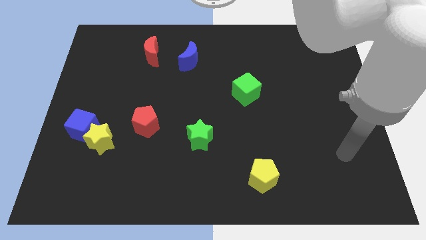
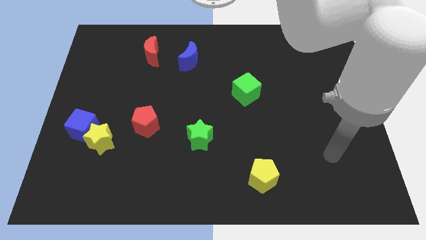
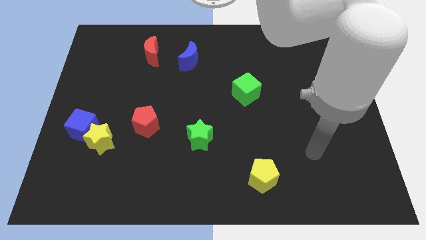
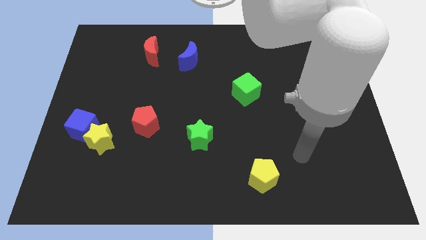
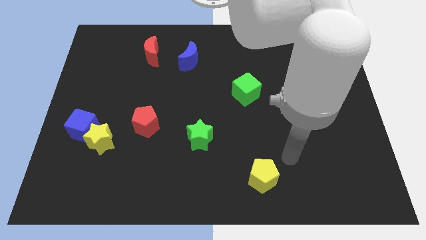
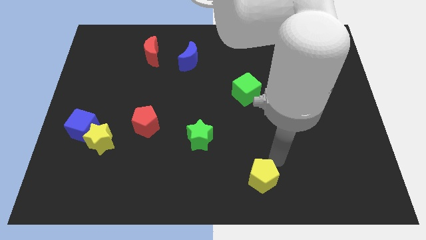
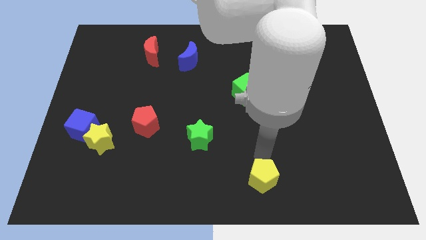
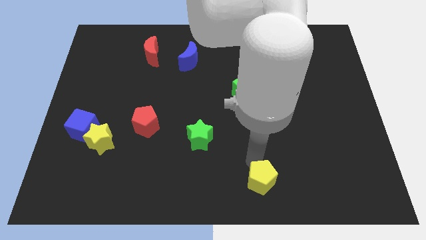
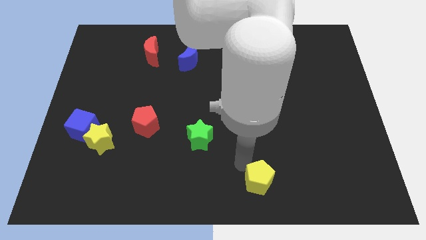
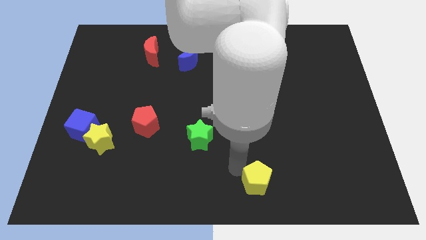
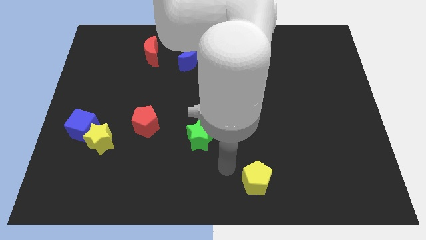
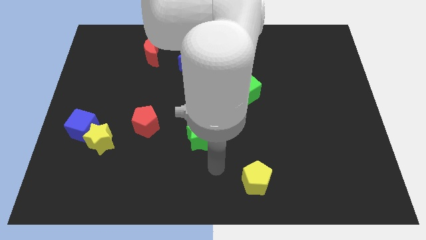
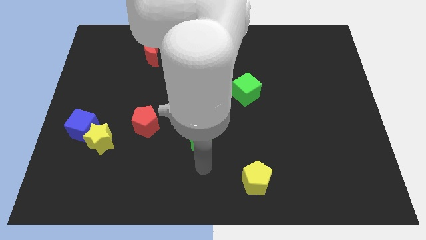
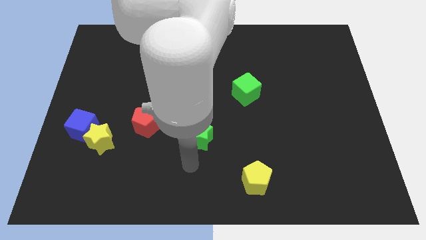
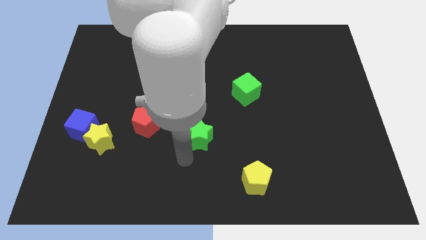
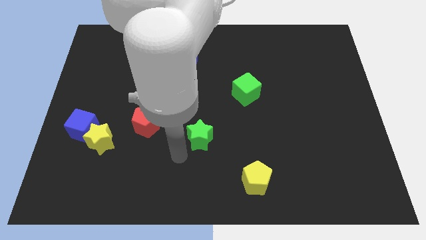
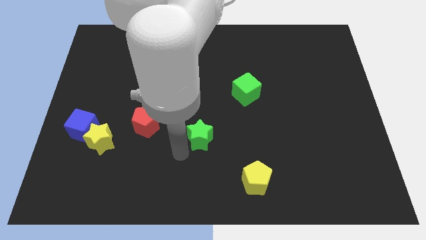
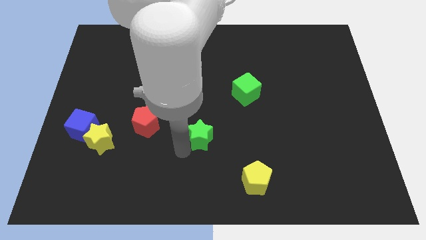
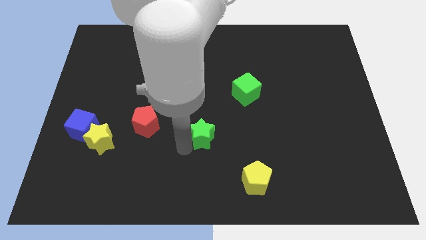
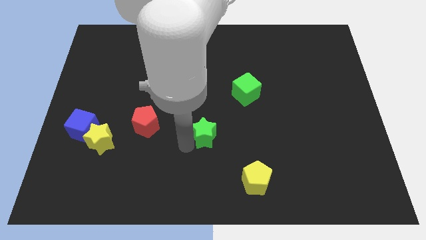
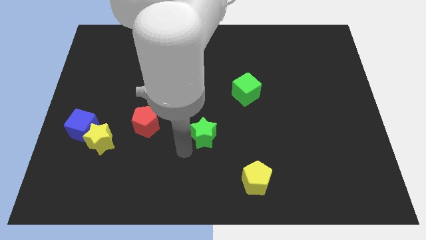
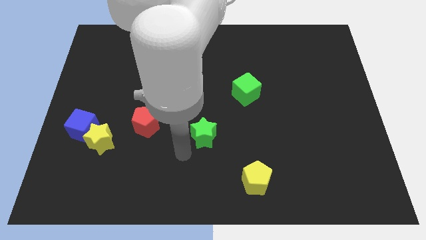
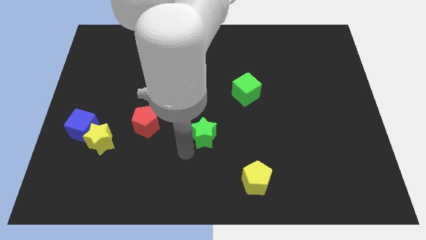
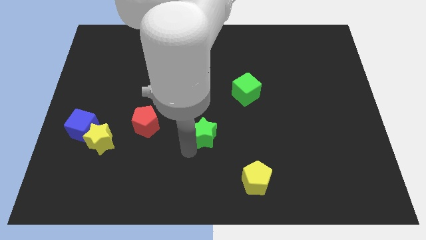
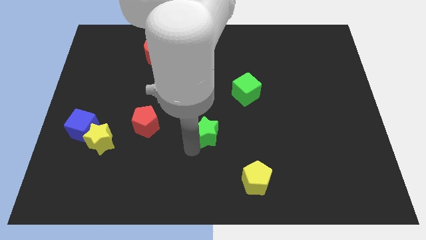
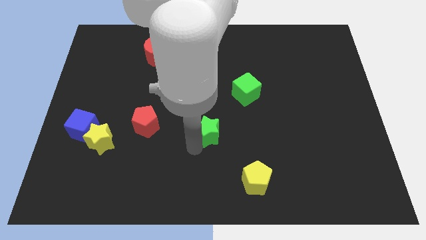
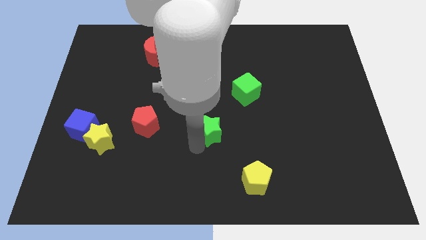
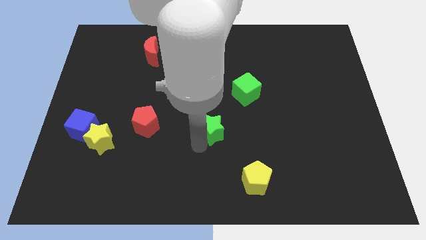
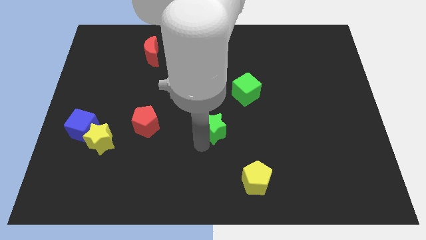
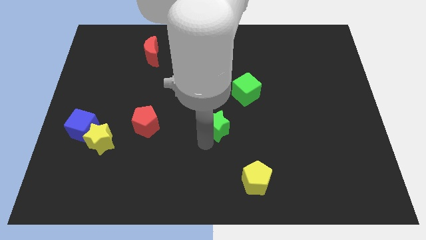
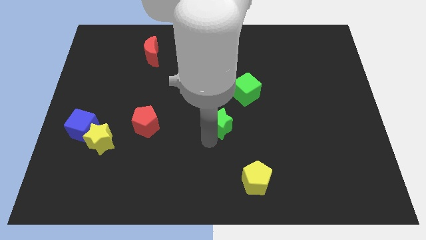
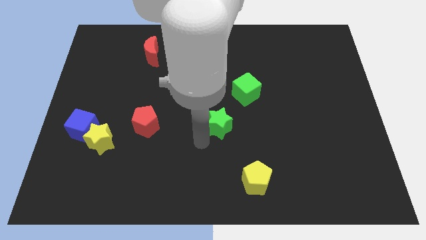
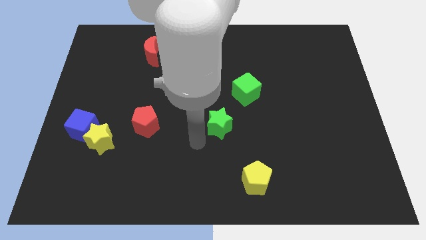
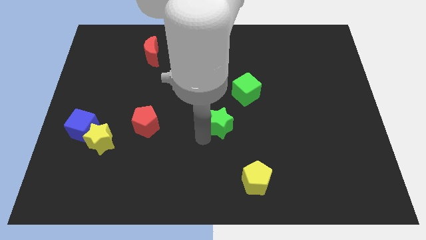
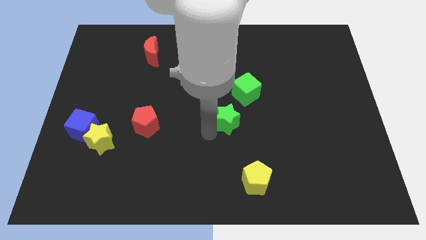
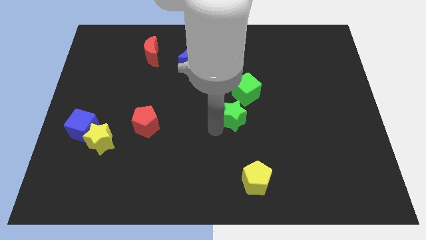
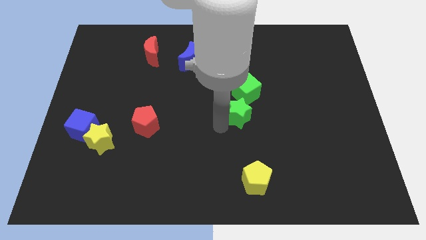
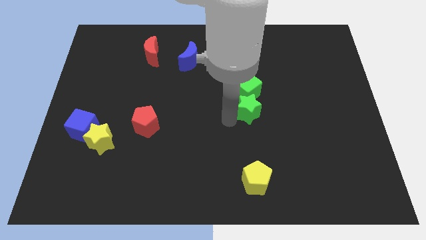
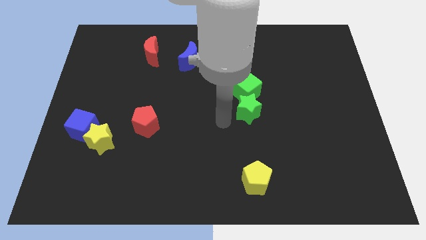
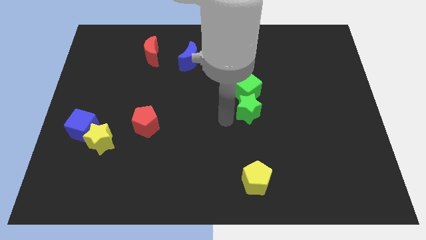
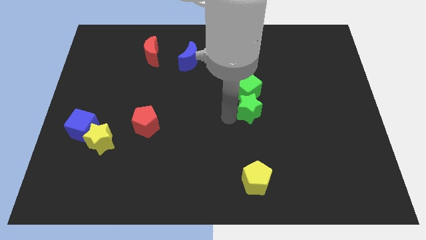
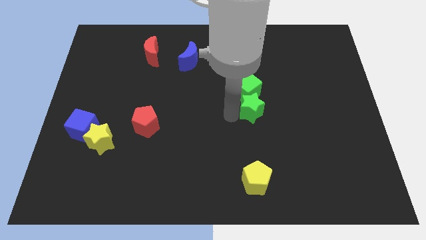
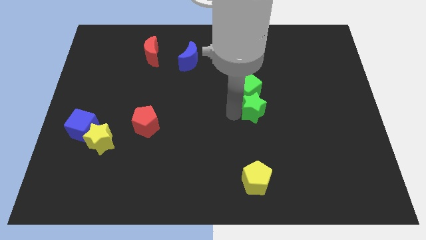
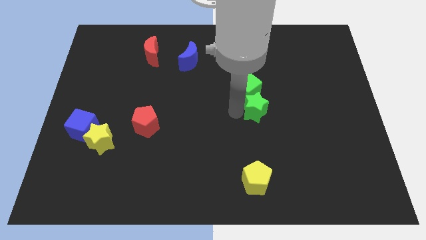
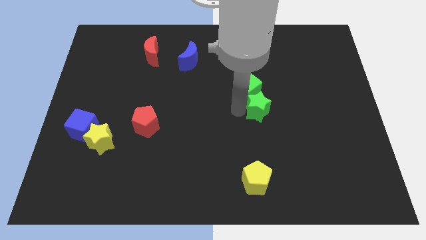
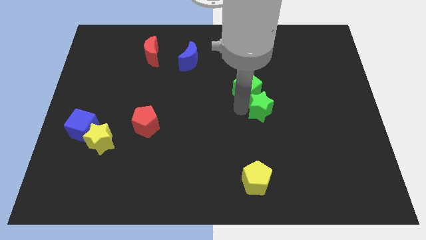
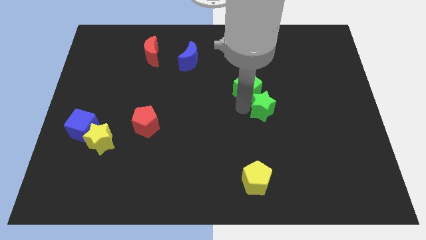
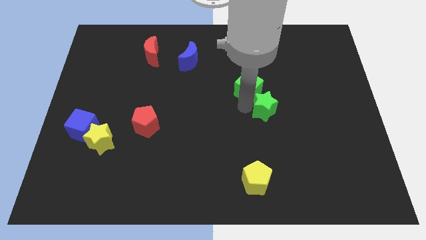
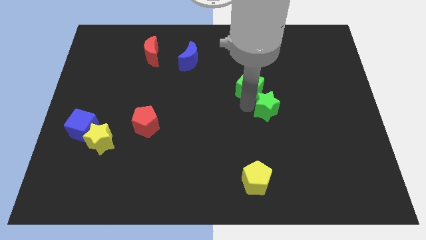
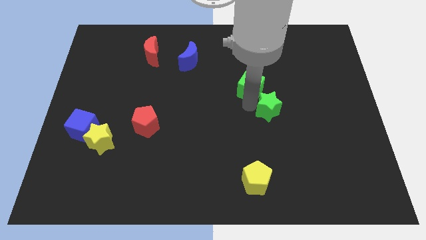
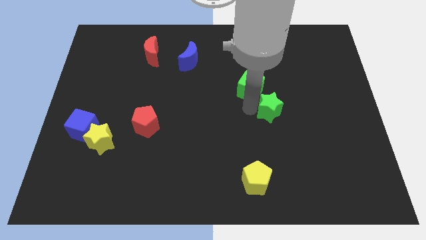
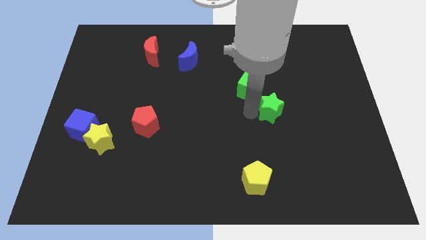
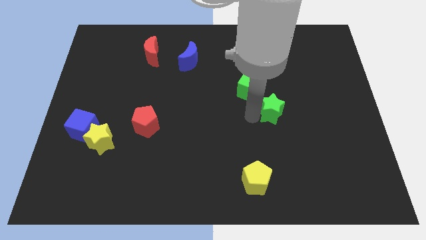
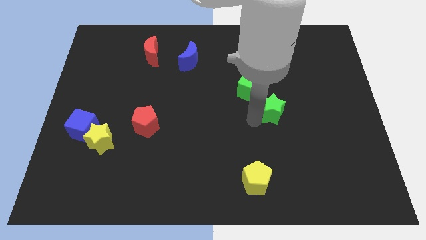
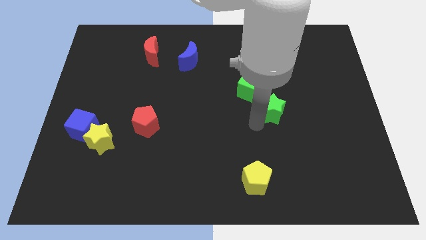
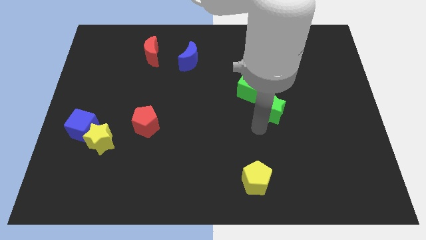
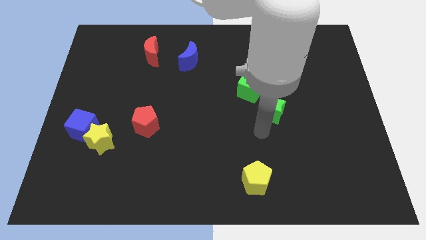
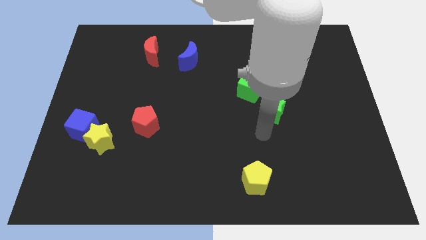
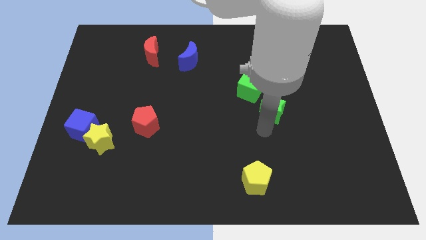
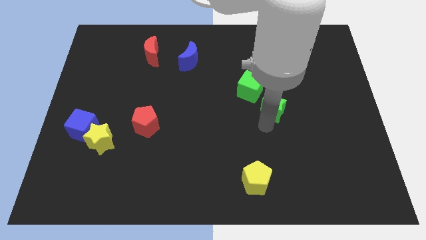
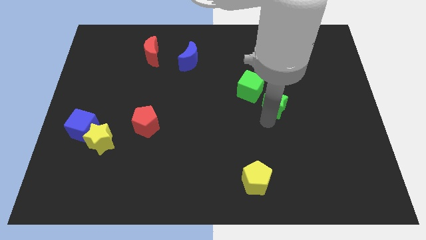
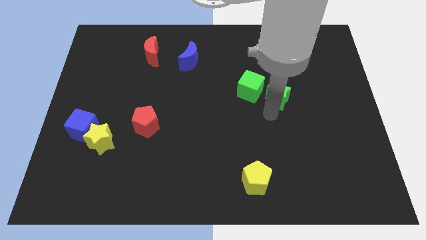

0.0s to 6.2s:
move the green star up and to the right

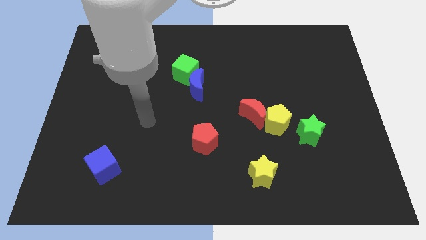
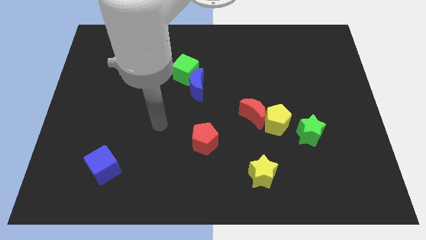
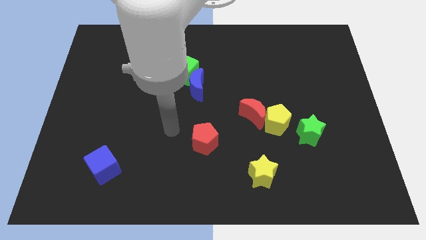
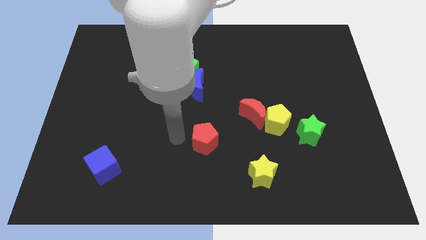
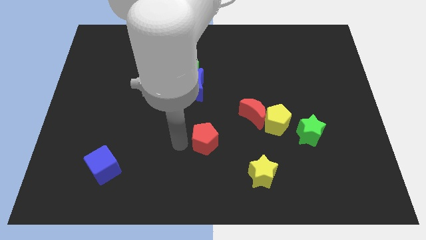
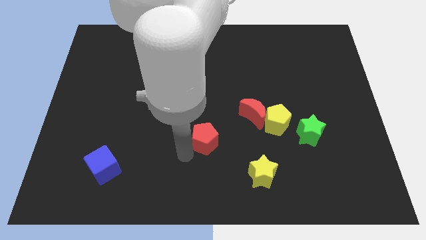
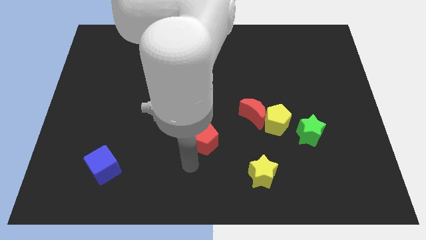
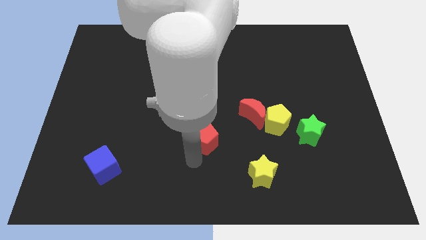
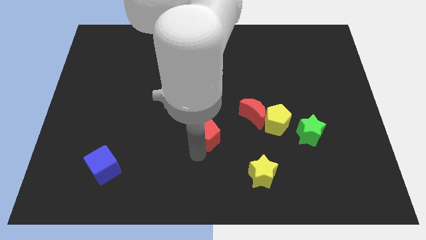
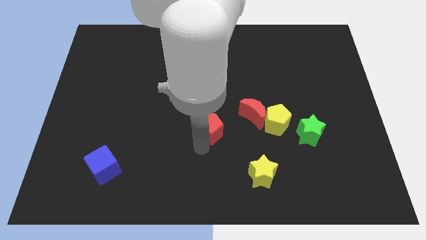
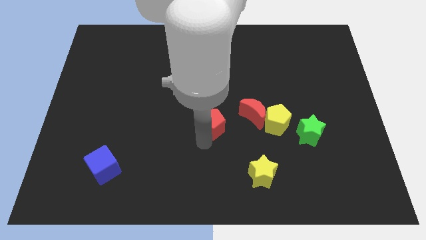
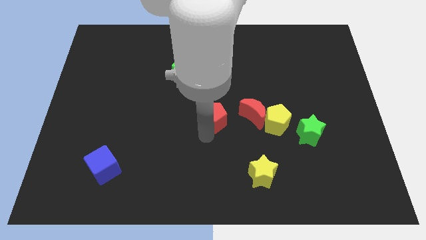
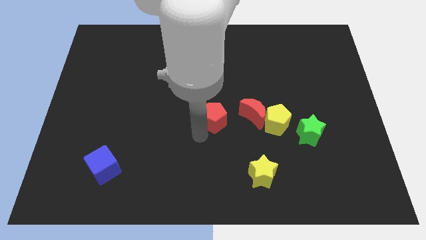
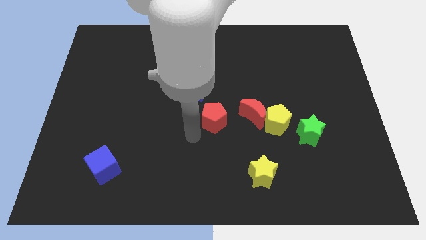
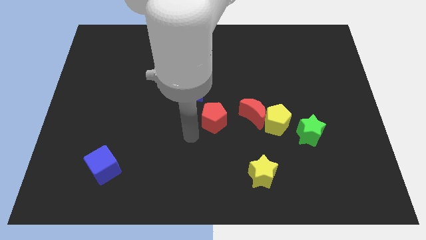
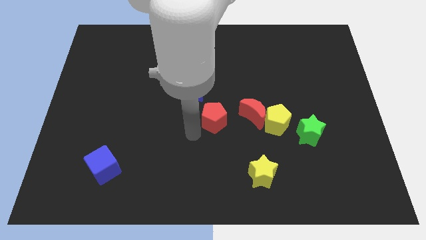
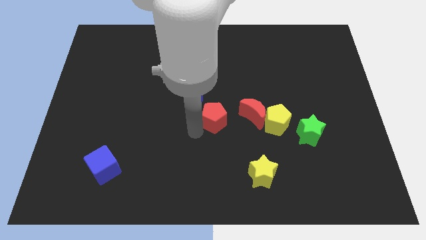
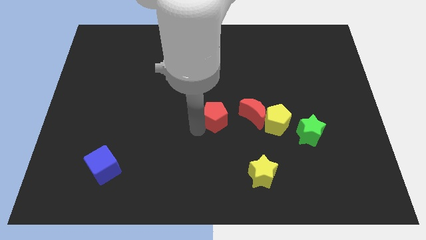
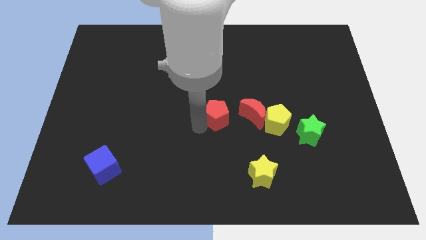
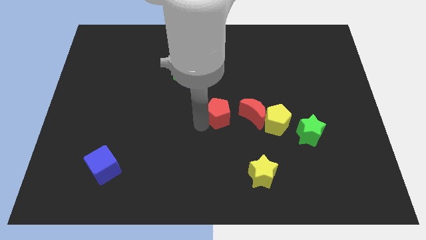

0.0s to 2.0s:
move the red pentagon up and right diagonally somewhat

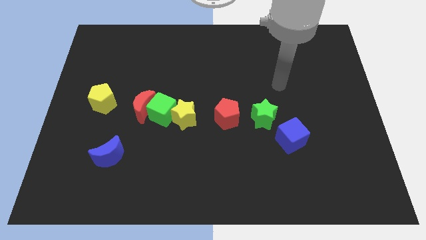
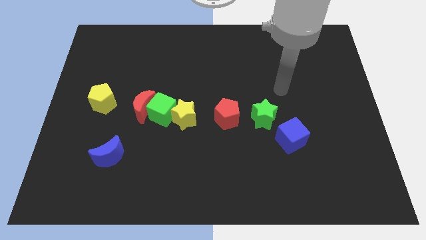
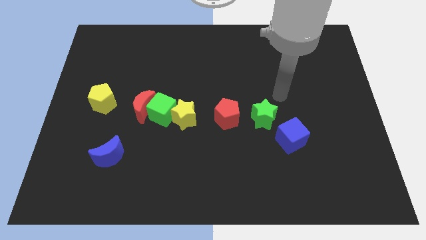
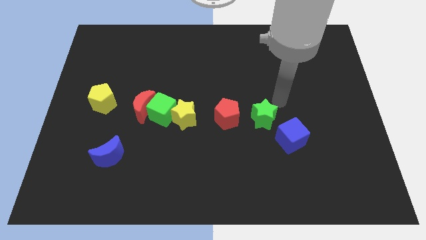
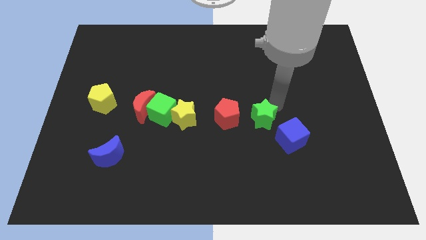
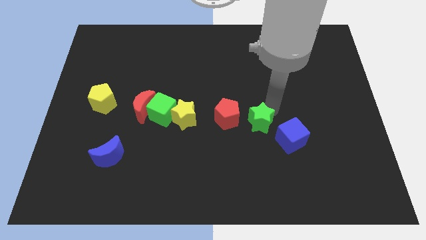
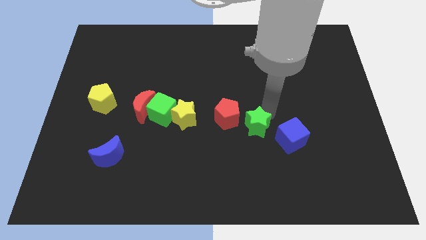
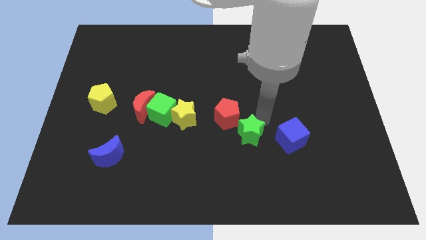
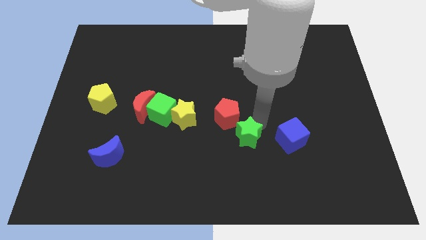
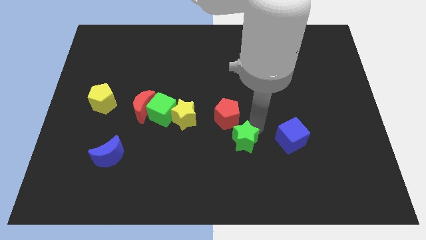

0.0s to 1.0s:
push the green star a little bit down and then left
